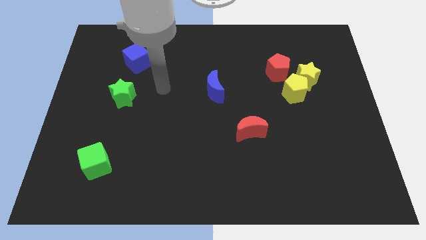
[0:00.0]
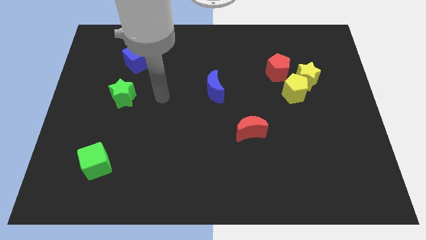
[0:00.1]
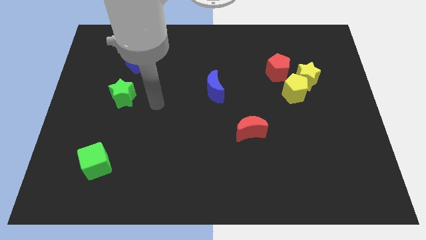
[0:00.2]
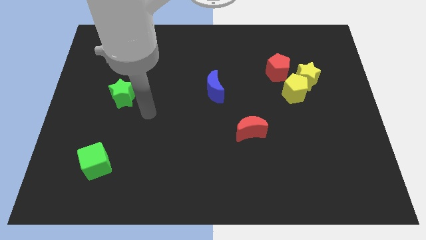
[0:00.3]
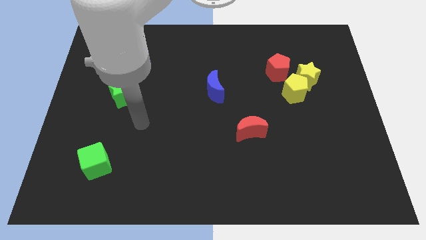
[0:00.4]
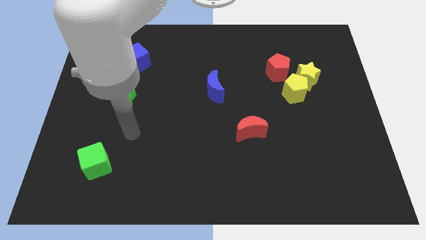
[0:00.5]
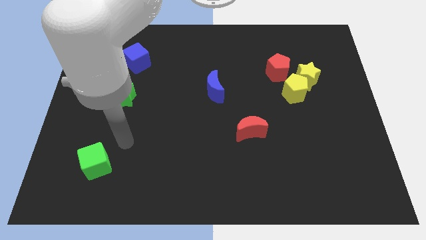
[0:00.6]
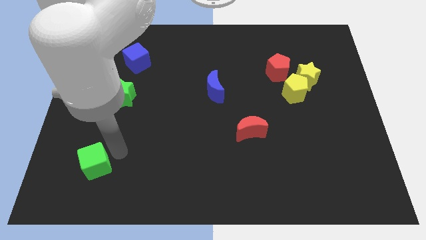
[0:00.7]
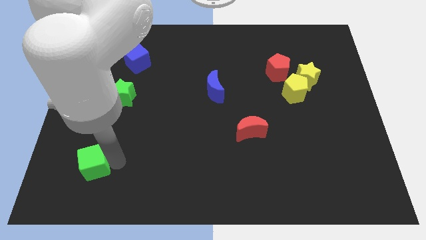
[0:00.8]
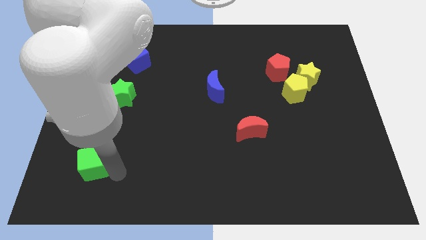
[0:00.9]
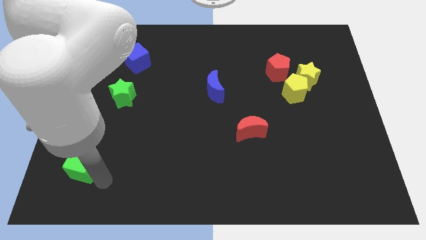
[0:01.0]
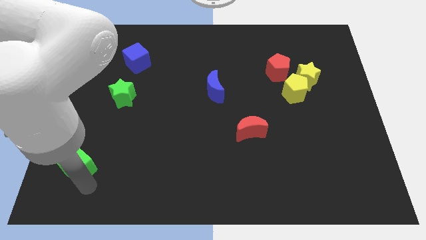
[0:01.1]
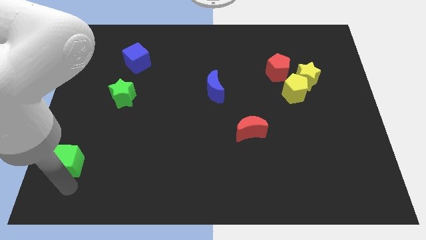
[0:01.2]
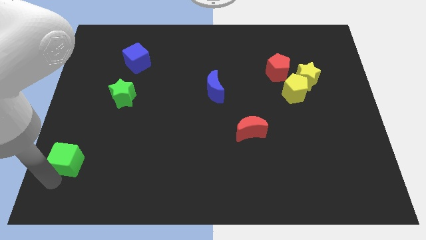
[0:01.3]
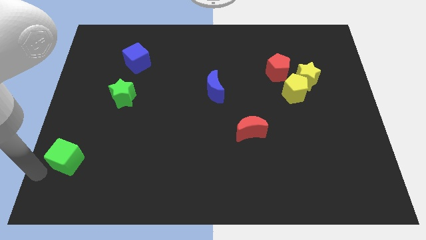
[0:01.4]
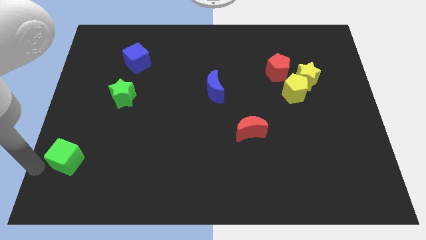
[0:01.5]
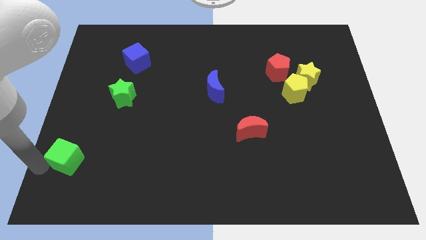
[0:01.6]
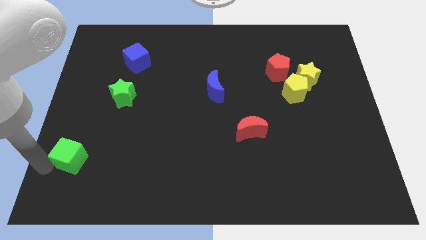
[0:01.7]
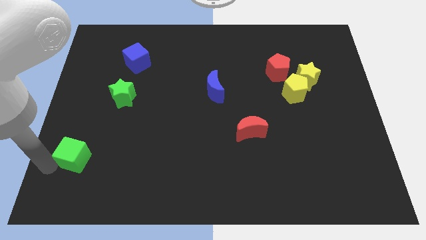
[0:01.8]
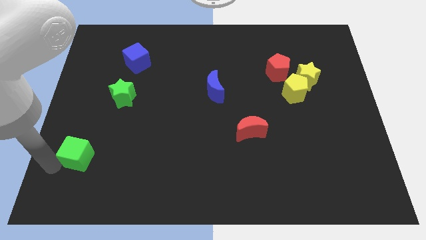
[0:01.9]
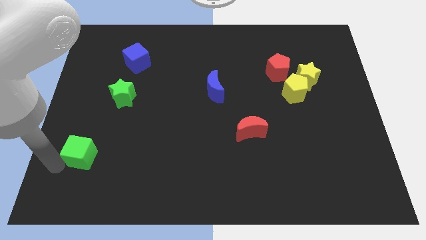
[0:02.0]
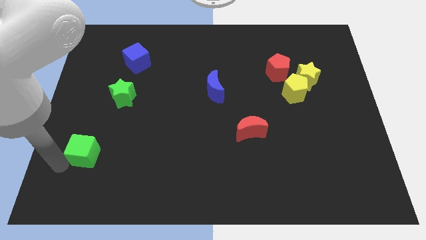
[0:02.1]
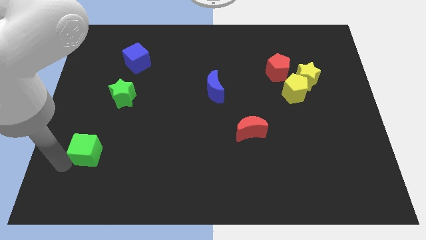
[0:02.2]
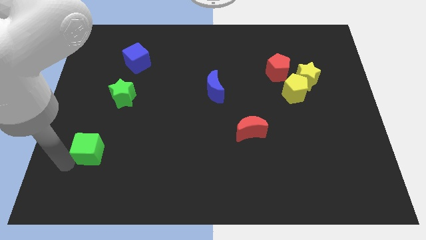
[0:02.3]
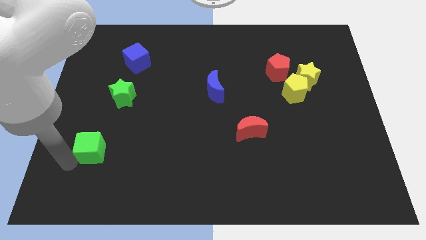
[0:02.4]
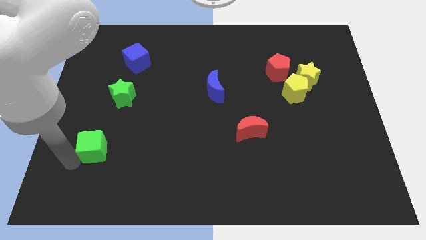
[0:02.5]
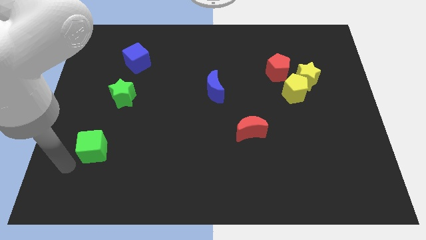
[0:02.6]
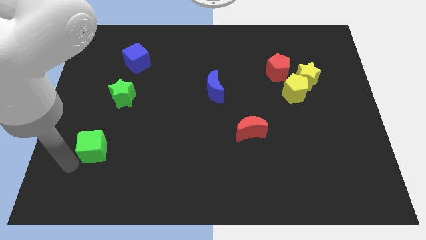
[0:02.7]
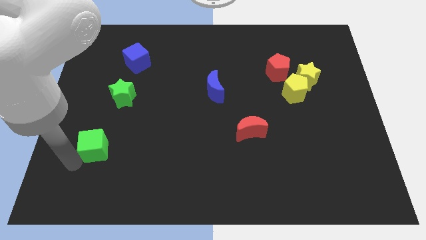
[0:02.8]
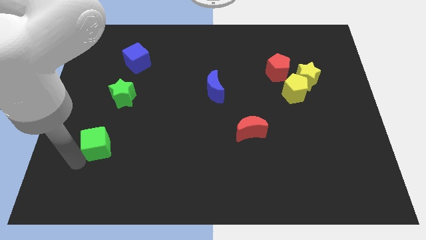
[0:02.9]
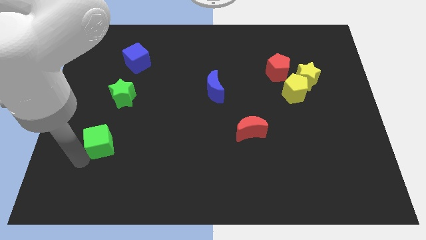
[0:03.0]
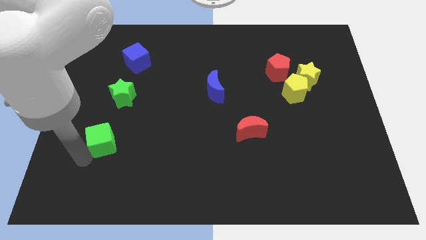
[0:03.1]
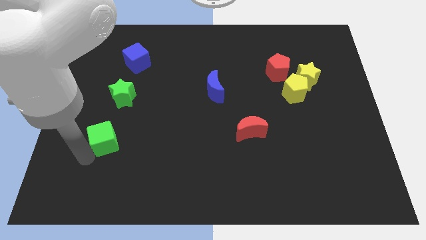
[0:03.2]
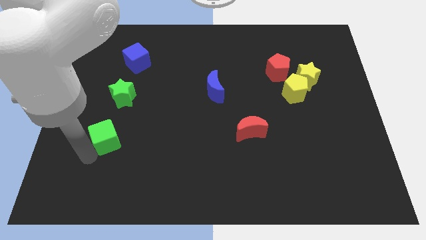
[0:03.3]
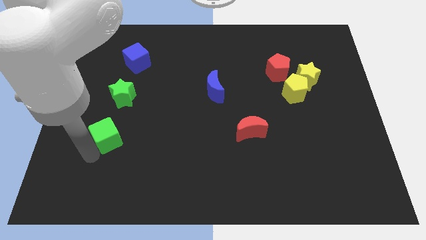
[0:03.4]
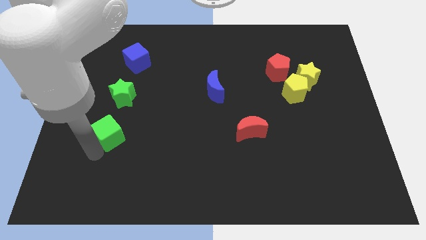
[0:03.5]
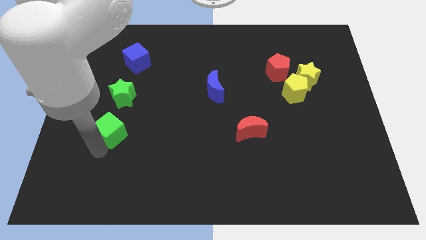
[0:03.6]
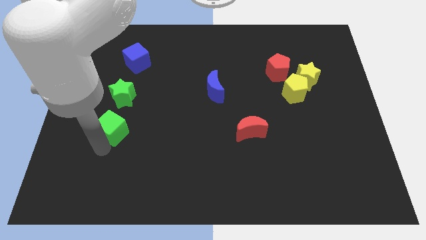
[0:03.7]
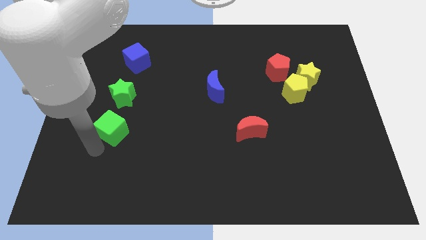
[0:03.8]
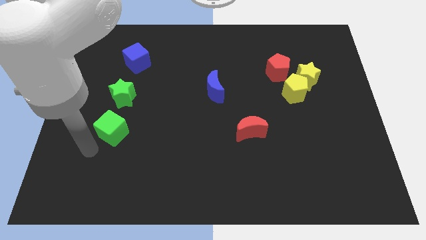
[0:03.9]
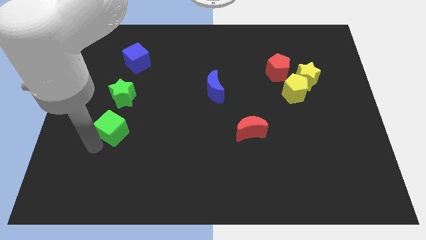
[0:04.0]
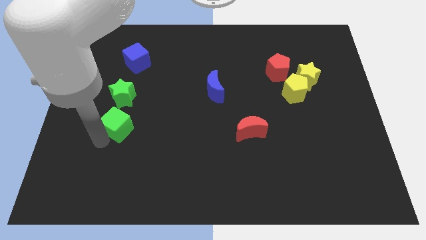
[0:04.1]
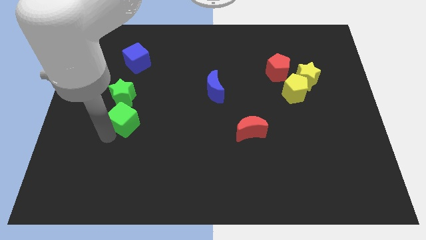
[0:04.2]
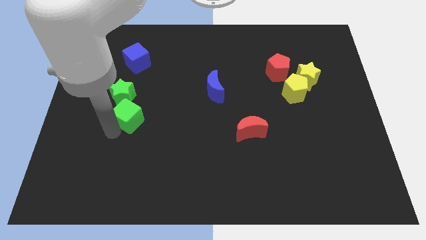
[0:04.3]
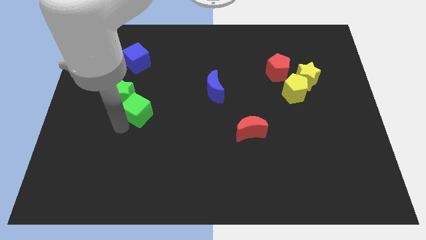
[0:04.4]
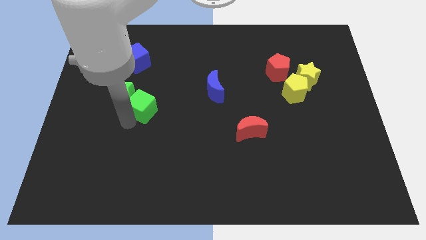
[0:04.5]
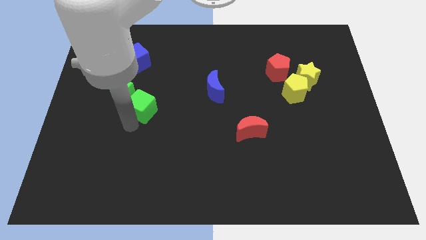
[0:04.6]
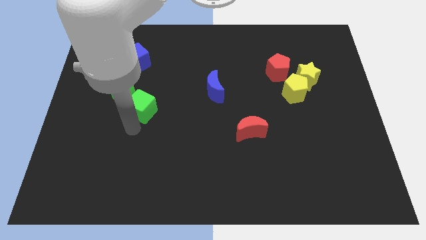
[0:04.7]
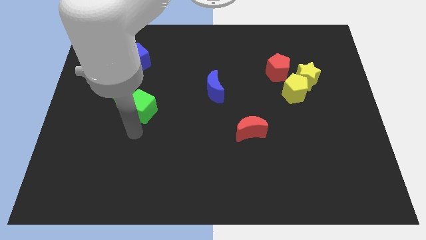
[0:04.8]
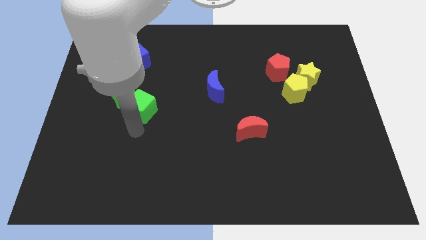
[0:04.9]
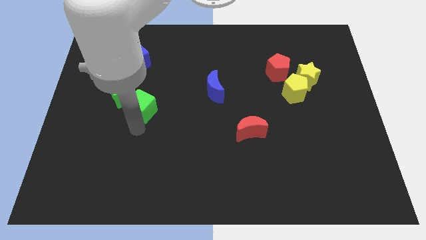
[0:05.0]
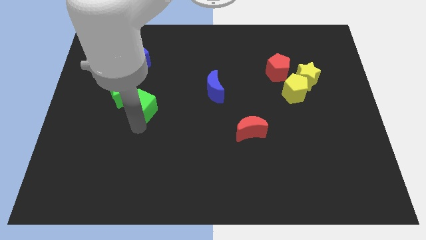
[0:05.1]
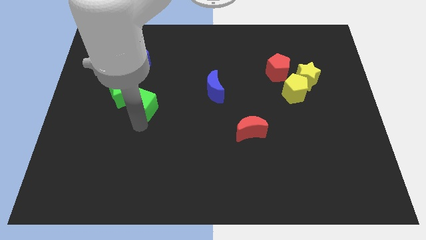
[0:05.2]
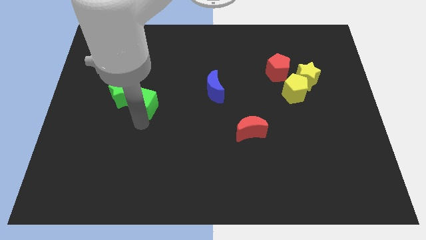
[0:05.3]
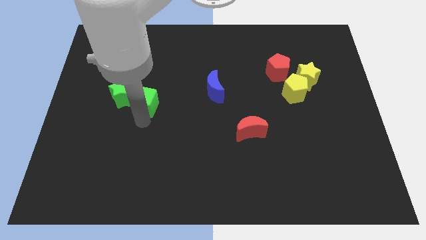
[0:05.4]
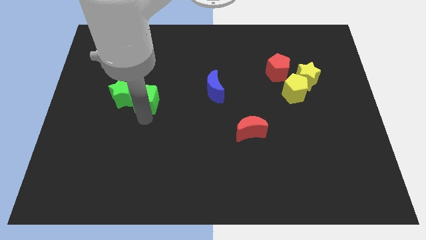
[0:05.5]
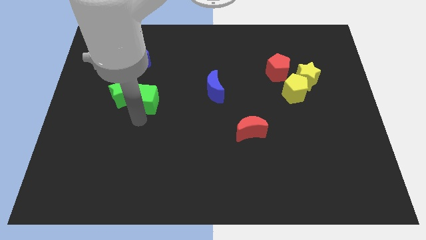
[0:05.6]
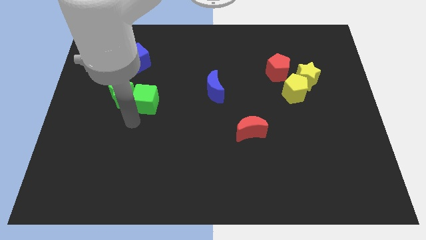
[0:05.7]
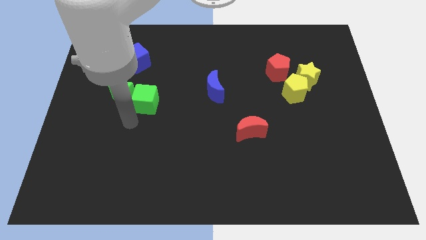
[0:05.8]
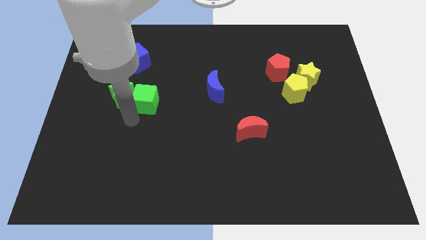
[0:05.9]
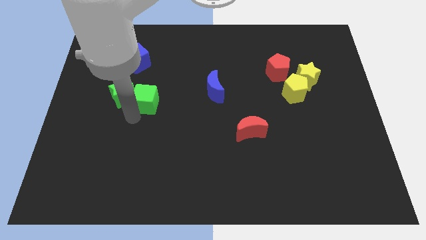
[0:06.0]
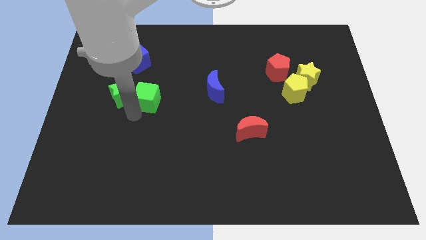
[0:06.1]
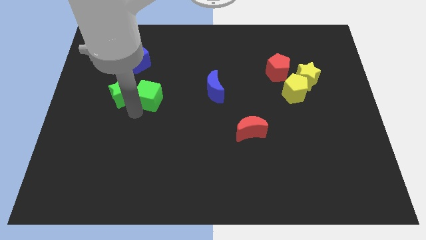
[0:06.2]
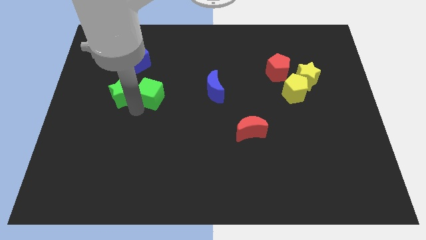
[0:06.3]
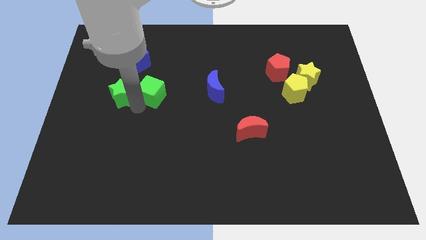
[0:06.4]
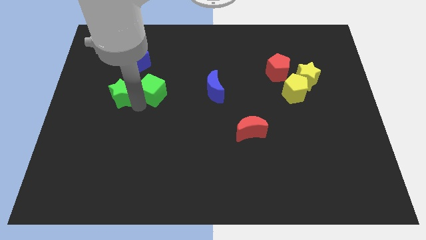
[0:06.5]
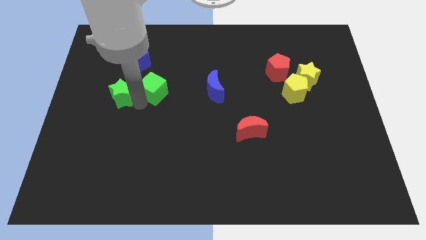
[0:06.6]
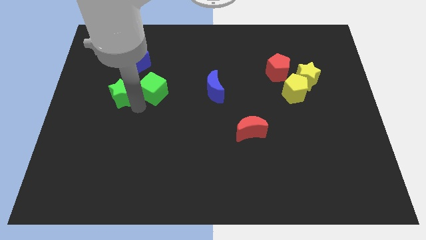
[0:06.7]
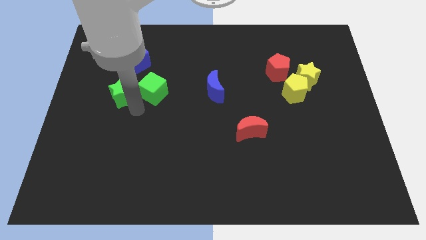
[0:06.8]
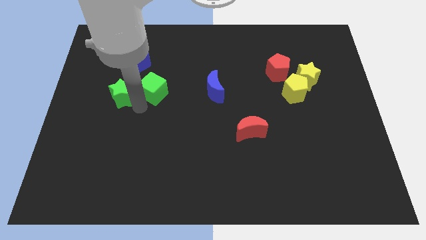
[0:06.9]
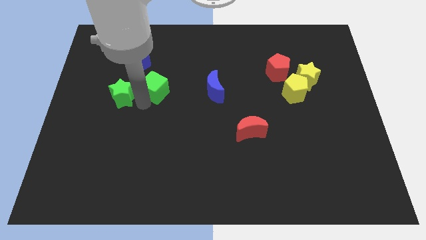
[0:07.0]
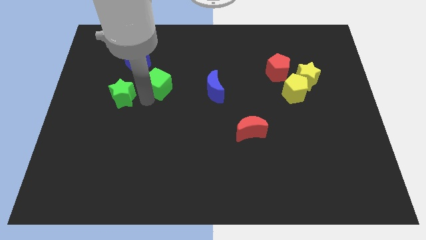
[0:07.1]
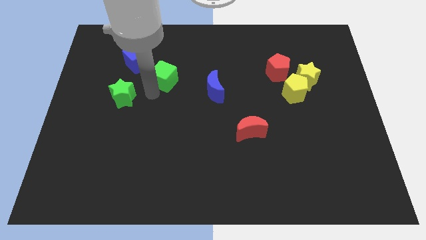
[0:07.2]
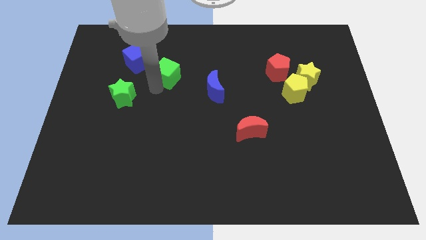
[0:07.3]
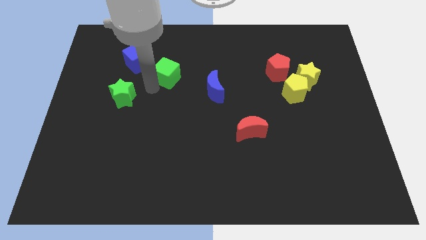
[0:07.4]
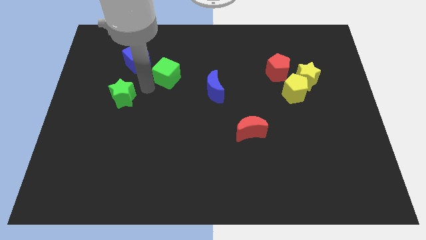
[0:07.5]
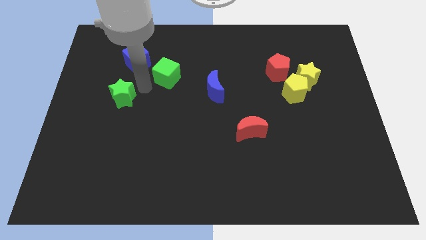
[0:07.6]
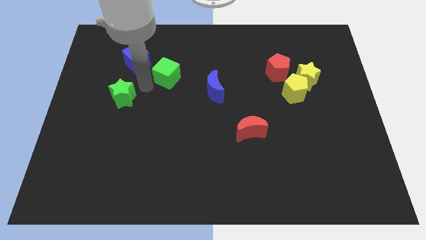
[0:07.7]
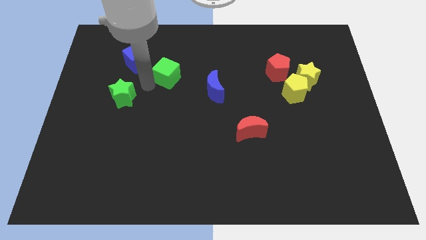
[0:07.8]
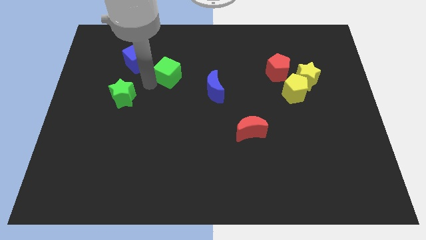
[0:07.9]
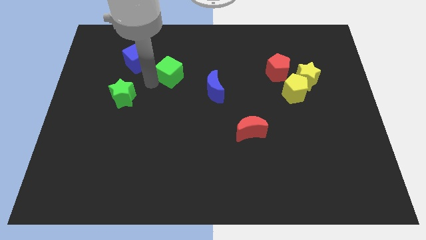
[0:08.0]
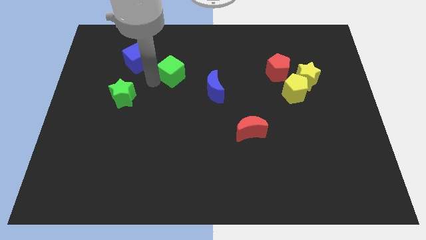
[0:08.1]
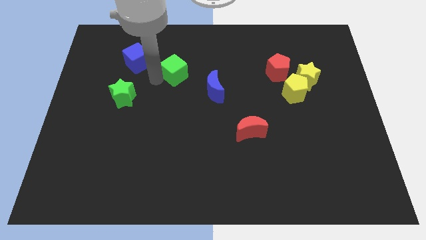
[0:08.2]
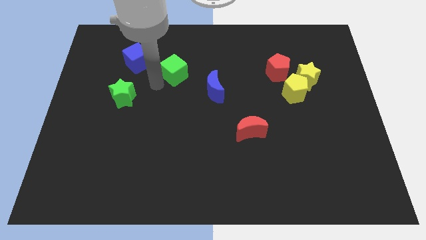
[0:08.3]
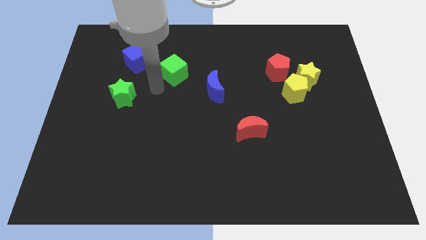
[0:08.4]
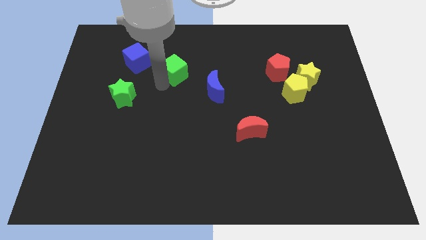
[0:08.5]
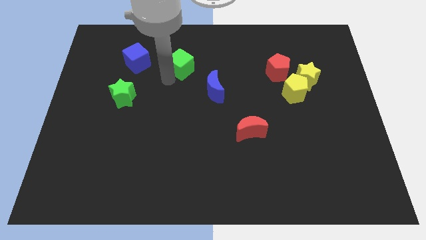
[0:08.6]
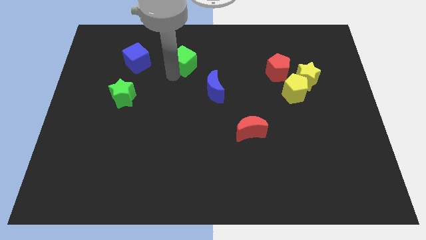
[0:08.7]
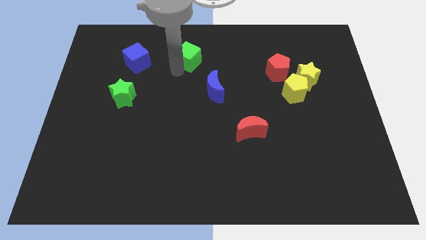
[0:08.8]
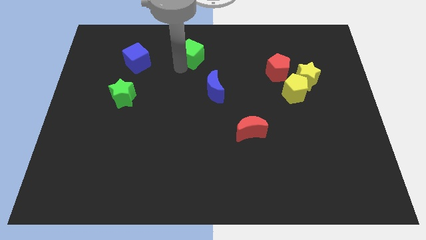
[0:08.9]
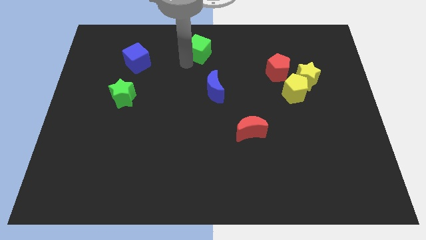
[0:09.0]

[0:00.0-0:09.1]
put the green cube to the towards your base
